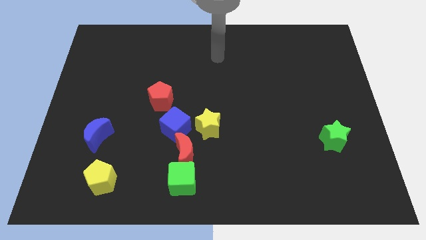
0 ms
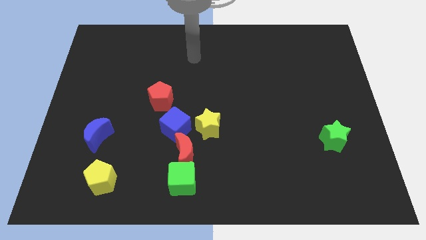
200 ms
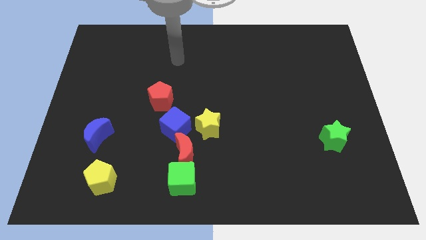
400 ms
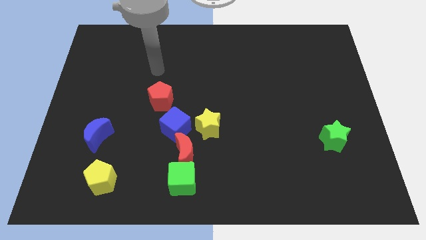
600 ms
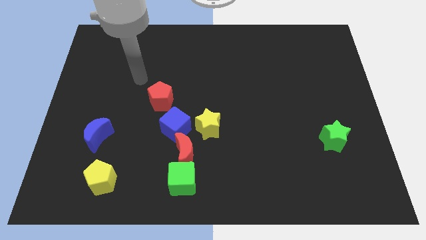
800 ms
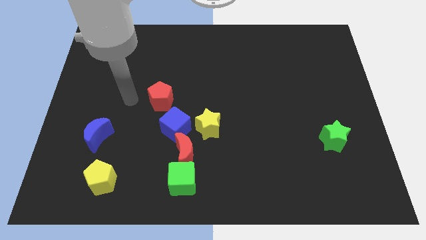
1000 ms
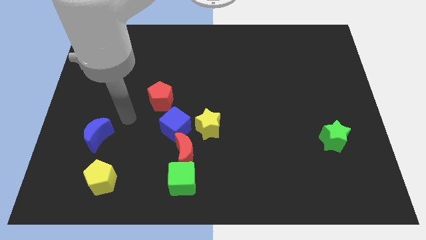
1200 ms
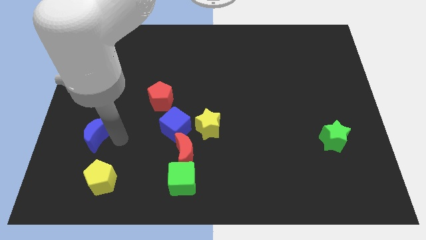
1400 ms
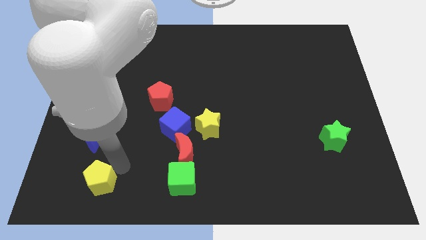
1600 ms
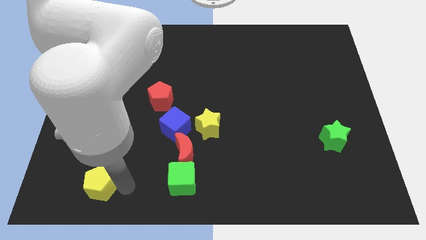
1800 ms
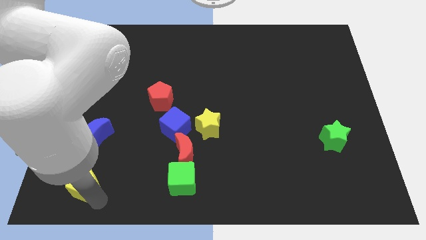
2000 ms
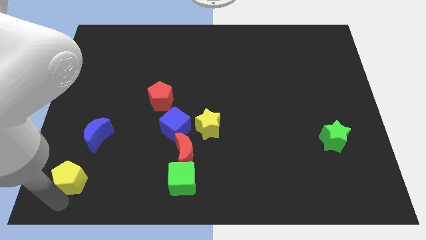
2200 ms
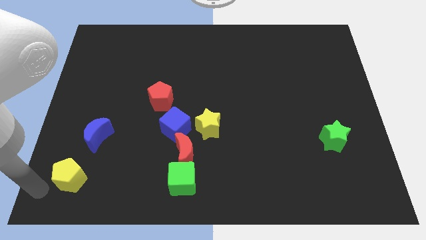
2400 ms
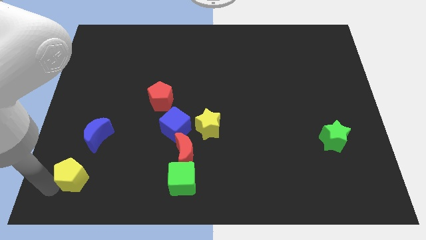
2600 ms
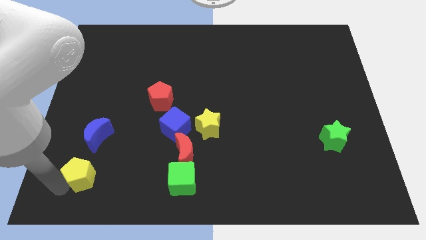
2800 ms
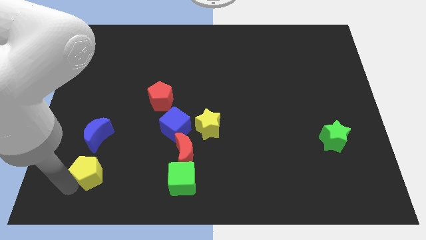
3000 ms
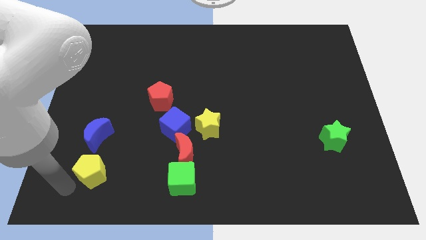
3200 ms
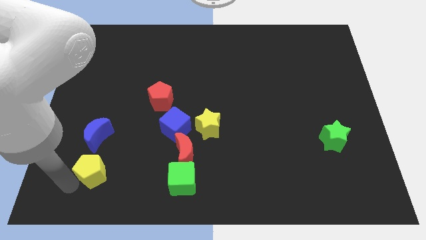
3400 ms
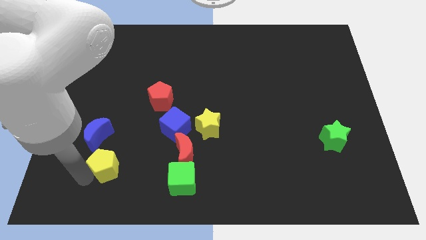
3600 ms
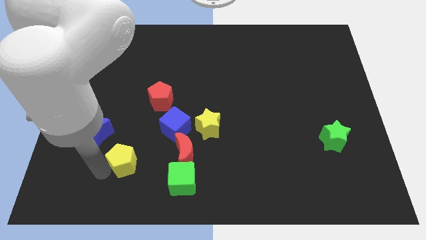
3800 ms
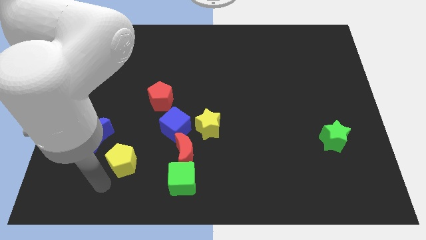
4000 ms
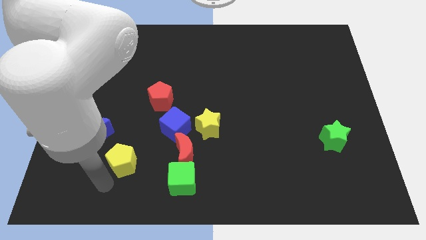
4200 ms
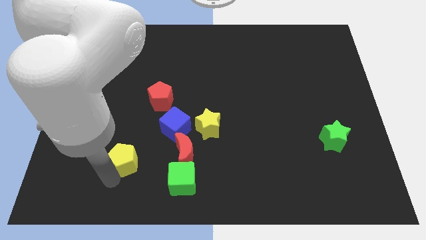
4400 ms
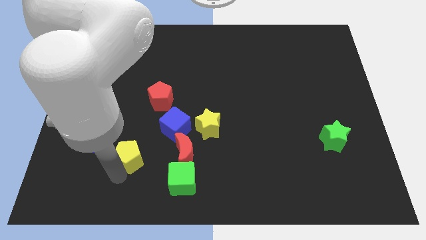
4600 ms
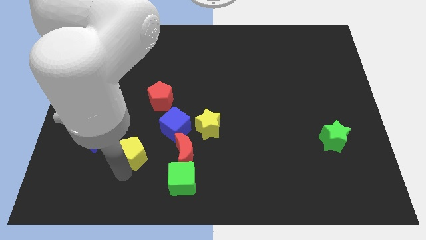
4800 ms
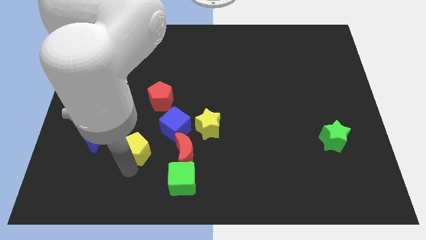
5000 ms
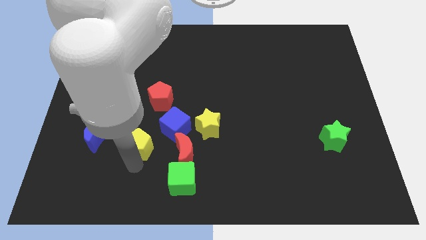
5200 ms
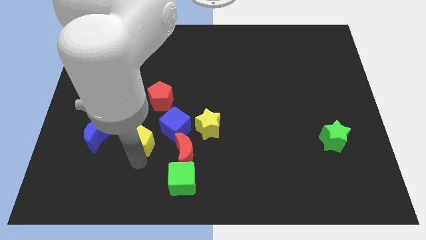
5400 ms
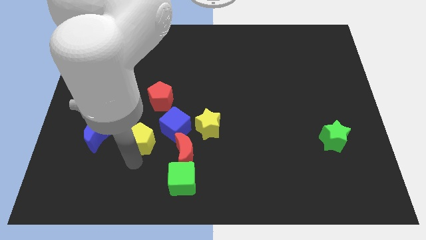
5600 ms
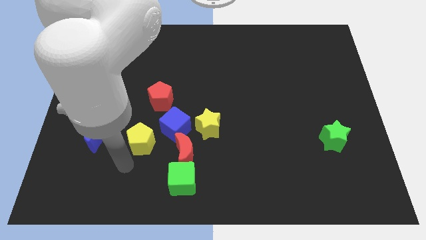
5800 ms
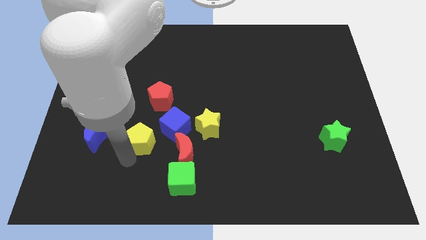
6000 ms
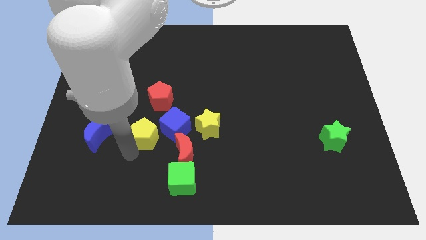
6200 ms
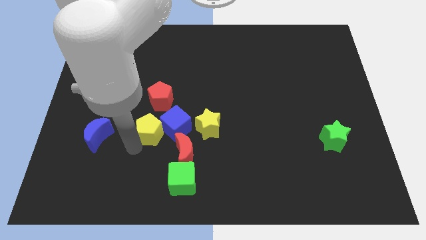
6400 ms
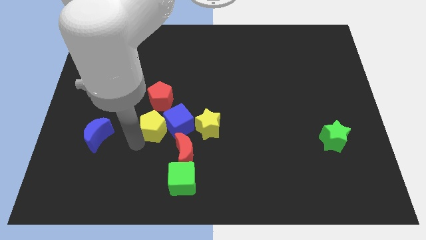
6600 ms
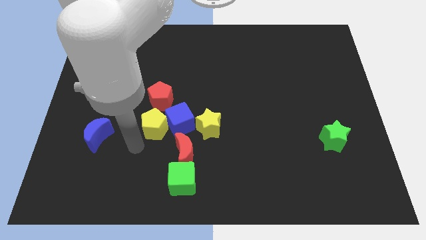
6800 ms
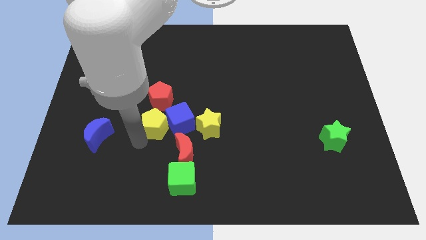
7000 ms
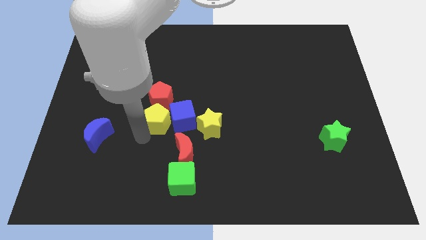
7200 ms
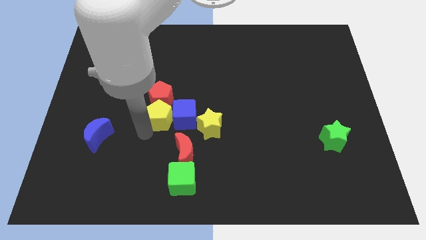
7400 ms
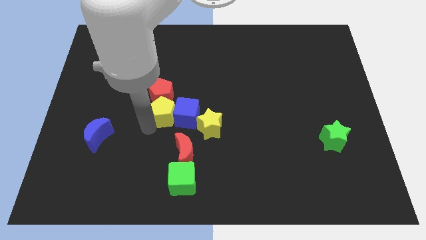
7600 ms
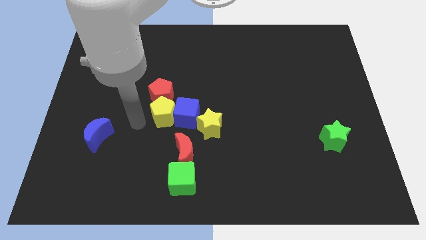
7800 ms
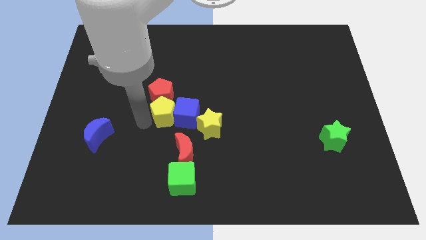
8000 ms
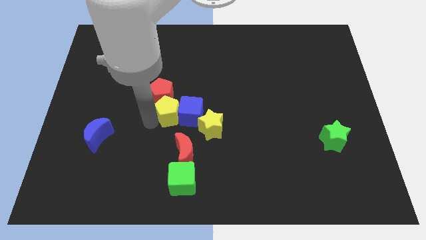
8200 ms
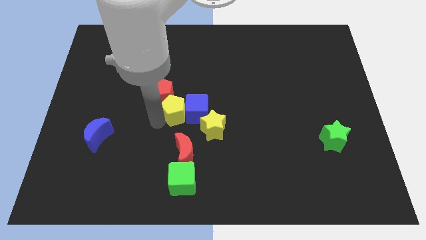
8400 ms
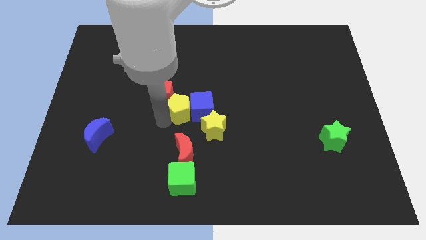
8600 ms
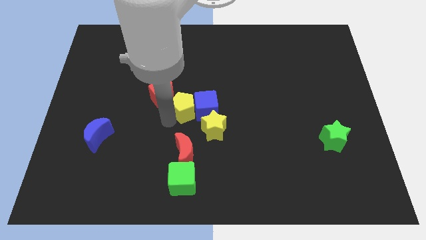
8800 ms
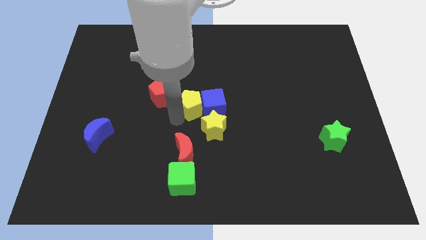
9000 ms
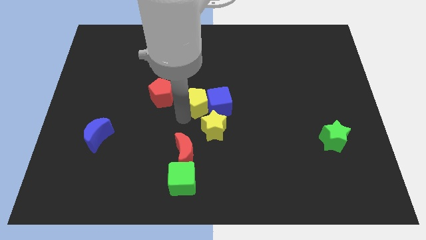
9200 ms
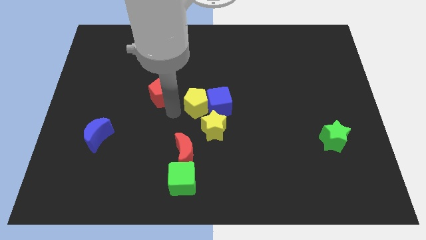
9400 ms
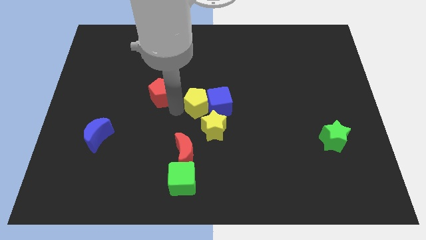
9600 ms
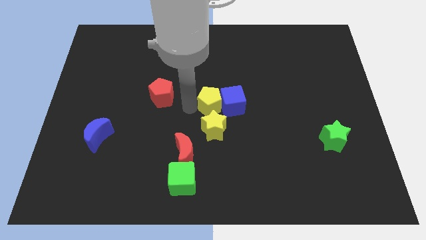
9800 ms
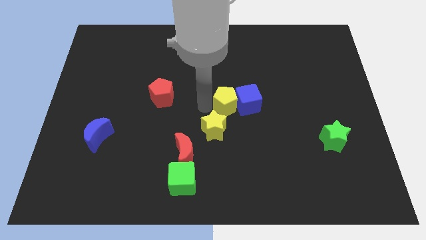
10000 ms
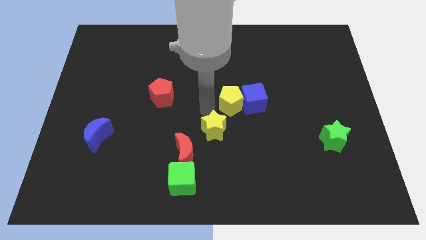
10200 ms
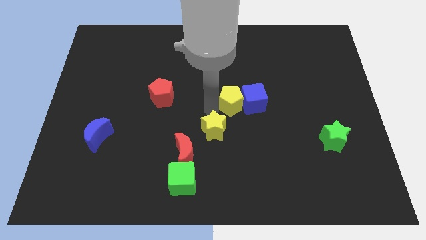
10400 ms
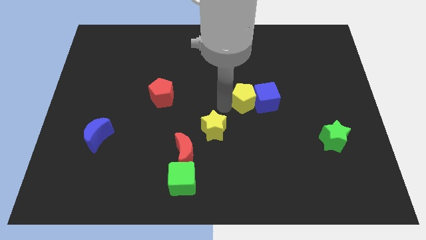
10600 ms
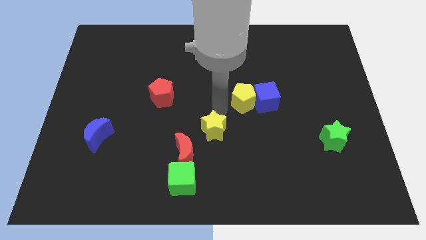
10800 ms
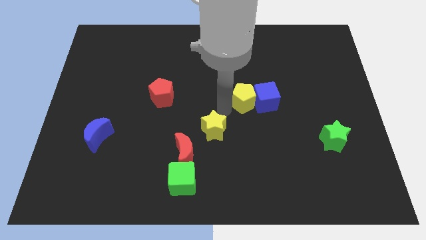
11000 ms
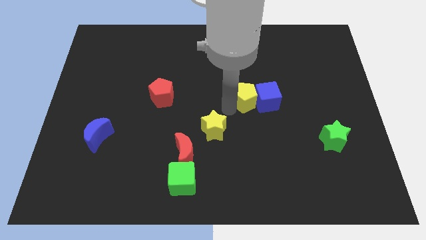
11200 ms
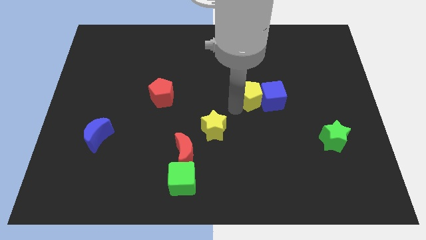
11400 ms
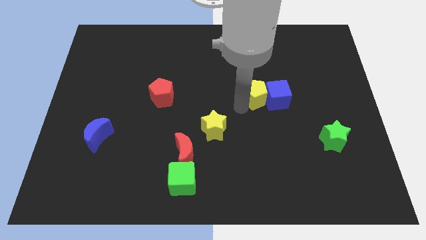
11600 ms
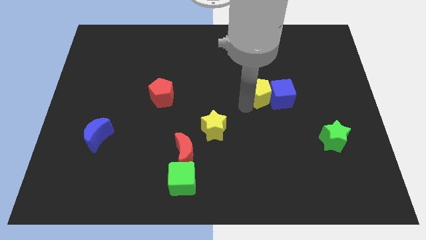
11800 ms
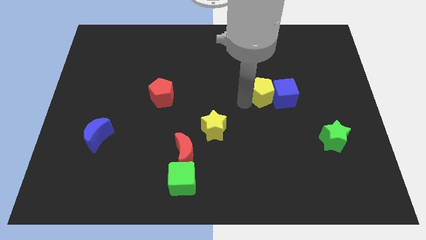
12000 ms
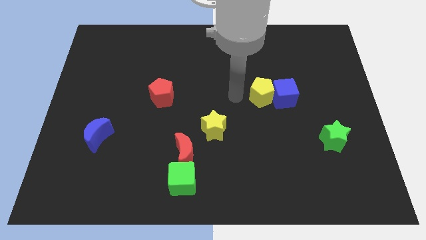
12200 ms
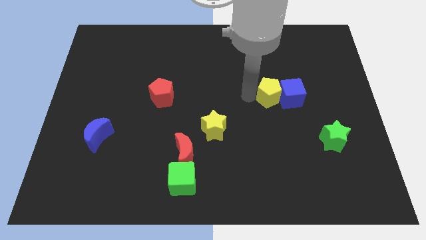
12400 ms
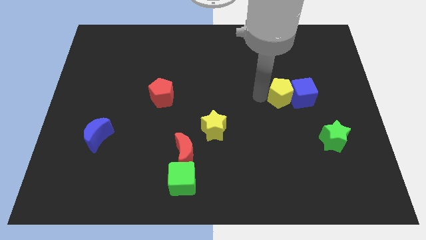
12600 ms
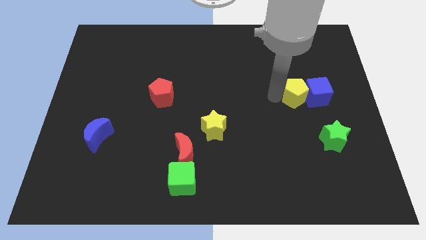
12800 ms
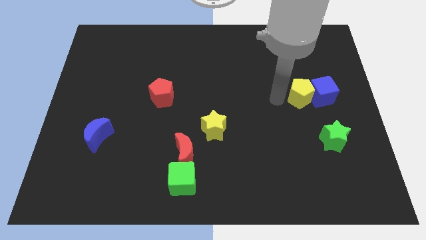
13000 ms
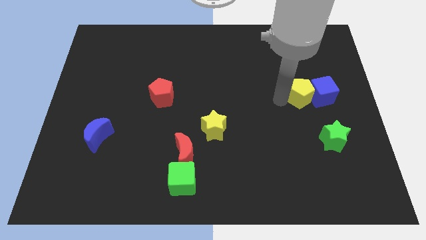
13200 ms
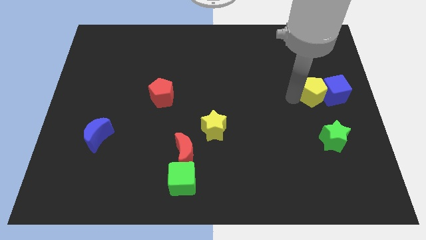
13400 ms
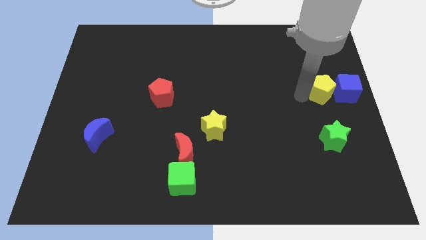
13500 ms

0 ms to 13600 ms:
move the yellow pentagon to the right side
